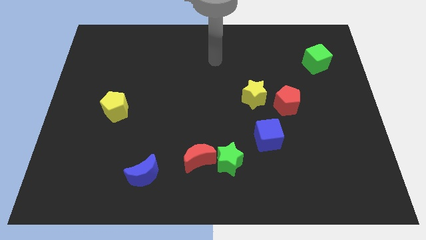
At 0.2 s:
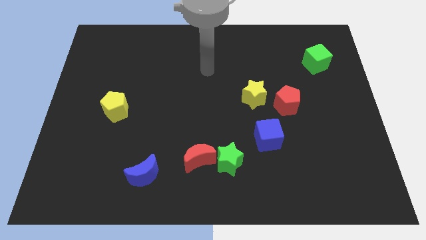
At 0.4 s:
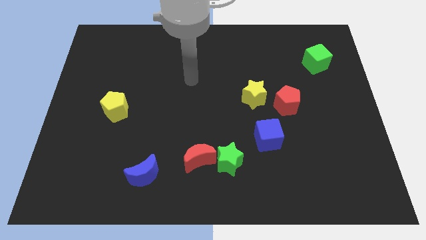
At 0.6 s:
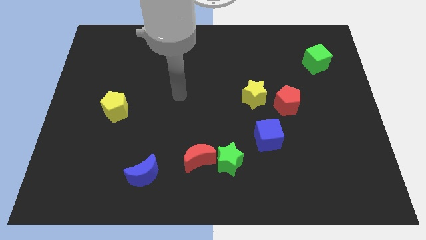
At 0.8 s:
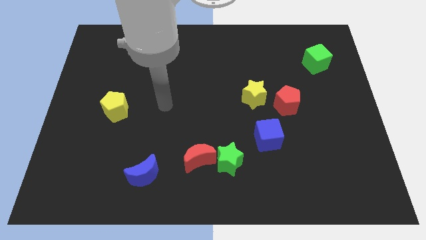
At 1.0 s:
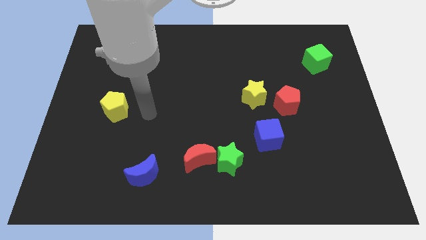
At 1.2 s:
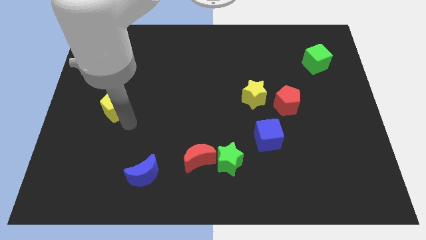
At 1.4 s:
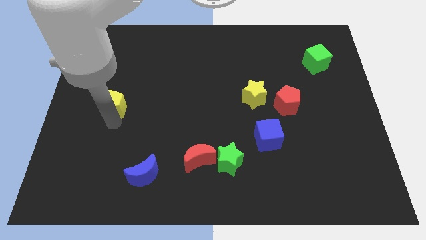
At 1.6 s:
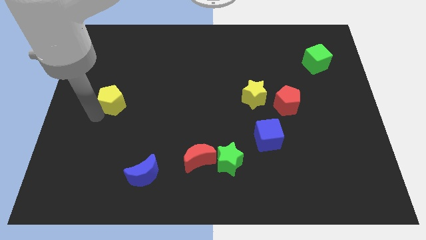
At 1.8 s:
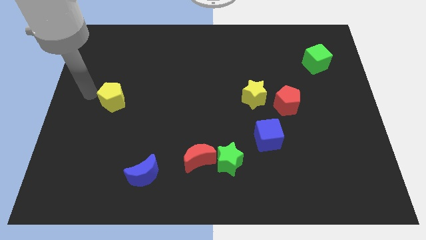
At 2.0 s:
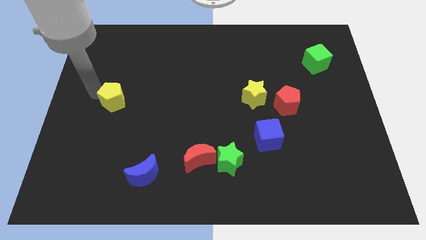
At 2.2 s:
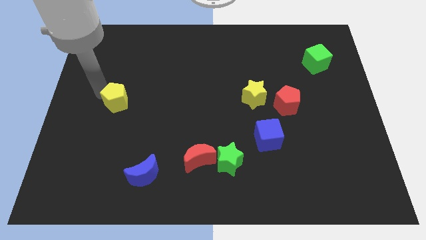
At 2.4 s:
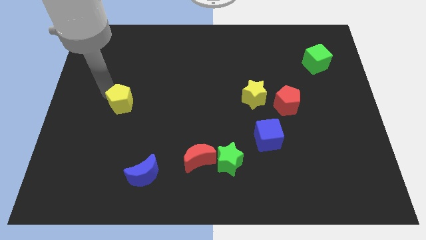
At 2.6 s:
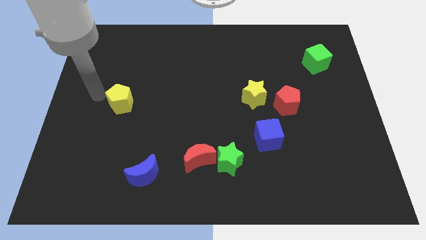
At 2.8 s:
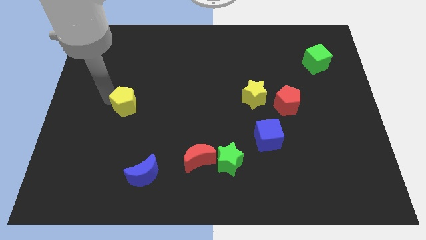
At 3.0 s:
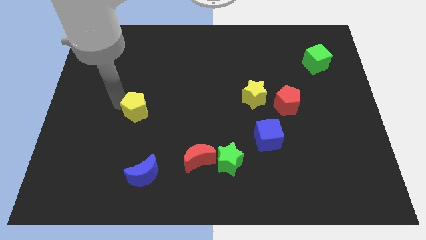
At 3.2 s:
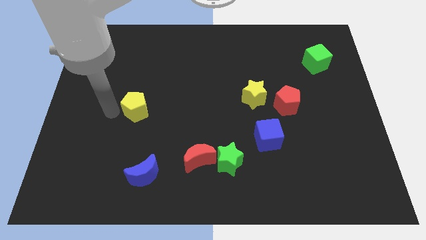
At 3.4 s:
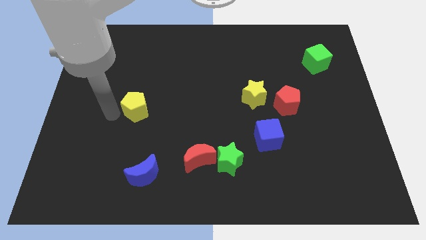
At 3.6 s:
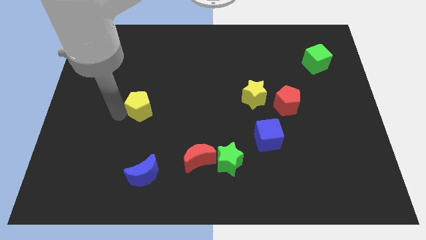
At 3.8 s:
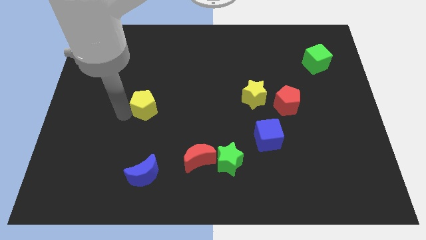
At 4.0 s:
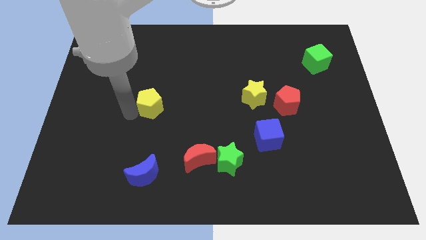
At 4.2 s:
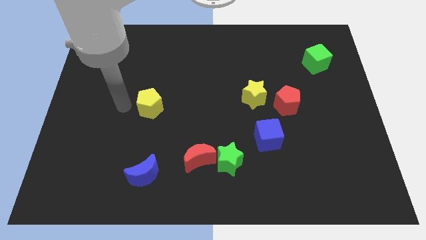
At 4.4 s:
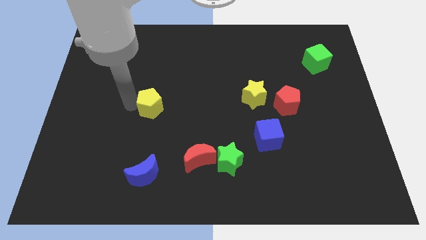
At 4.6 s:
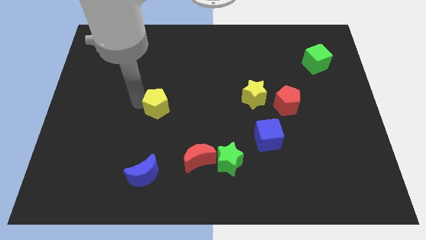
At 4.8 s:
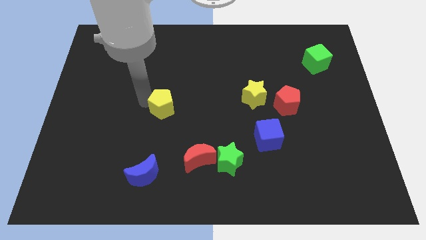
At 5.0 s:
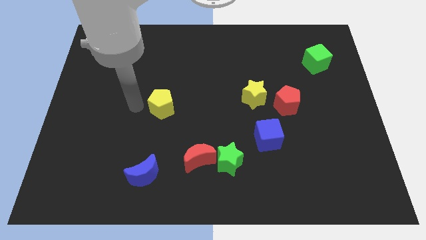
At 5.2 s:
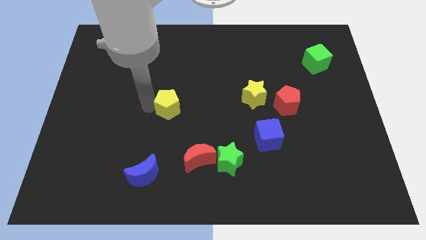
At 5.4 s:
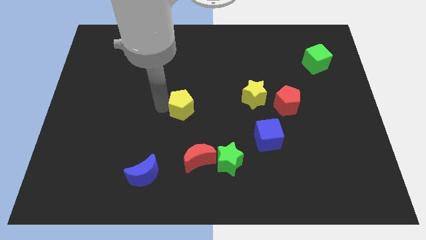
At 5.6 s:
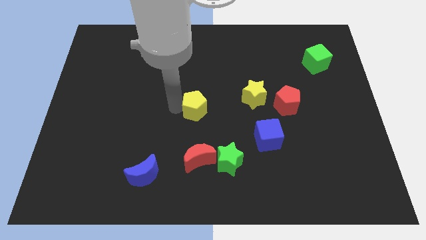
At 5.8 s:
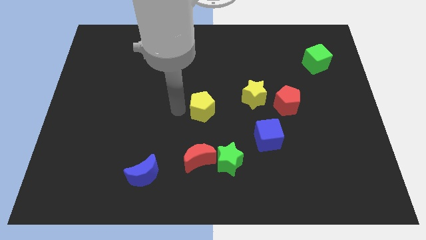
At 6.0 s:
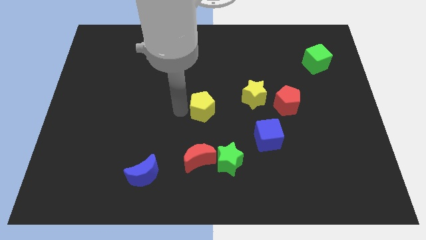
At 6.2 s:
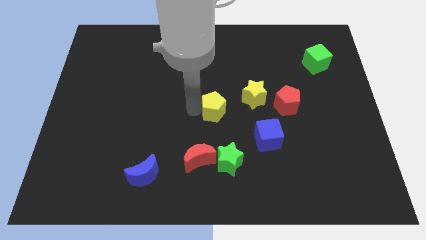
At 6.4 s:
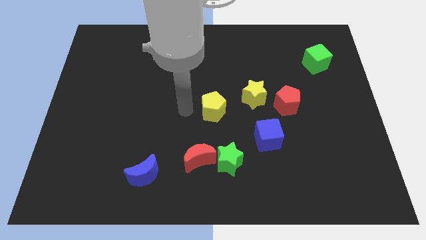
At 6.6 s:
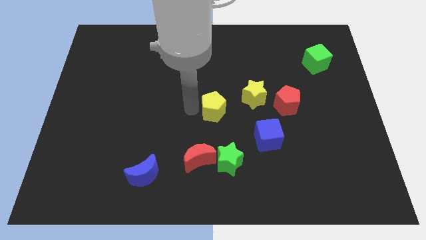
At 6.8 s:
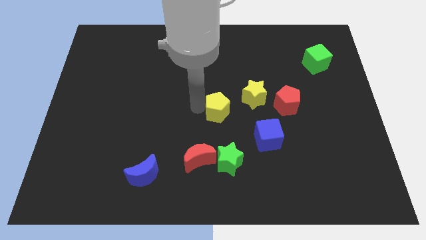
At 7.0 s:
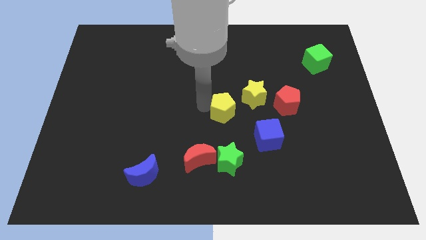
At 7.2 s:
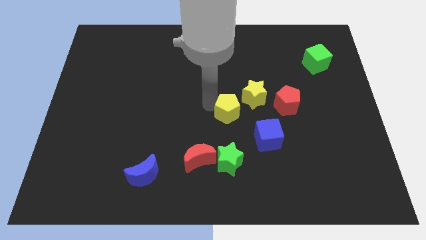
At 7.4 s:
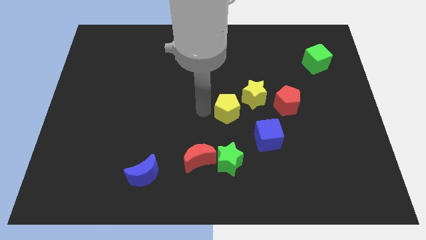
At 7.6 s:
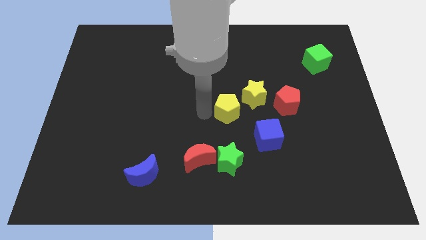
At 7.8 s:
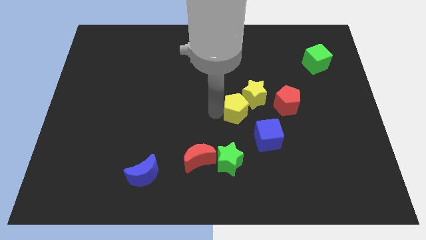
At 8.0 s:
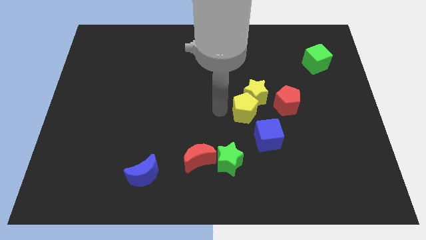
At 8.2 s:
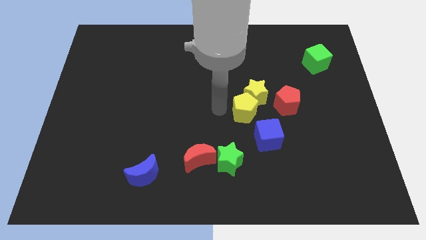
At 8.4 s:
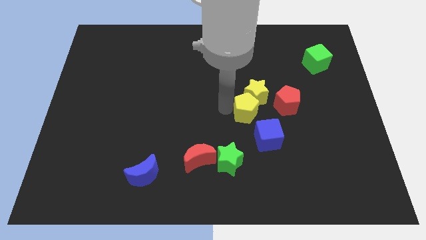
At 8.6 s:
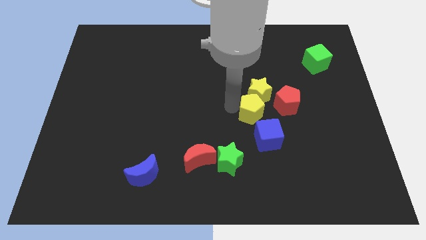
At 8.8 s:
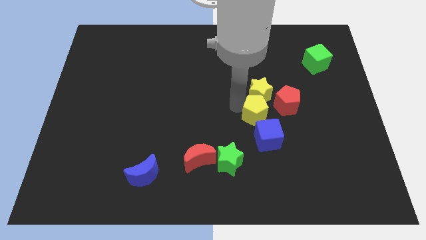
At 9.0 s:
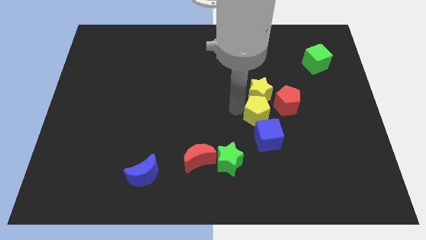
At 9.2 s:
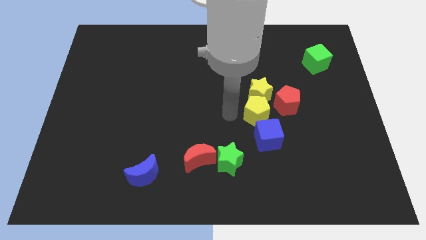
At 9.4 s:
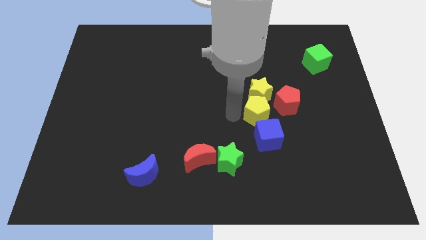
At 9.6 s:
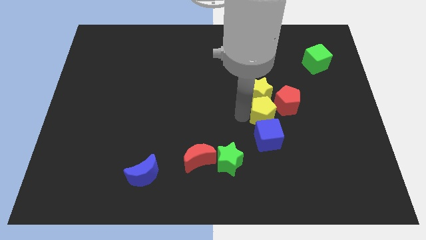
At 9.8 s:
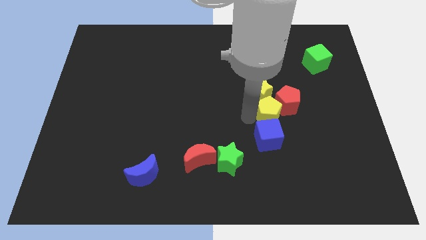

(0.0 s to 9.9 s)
put the yellow pentagon towards the red pentagon

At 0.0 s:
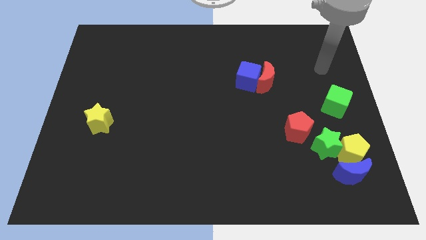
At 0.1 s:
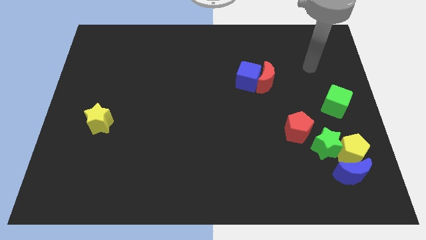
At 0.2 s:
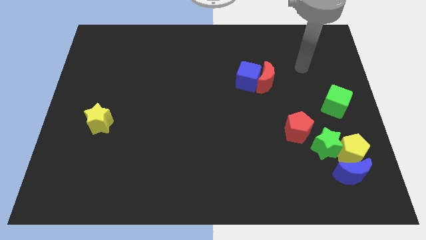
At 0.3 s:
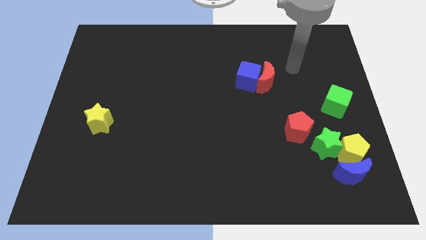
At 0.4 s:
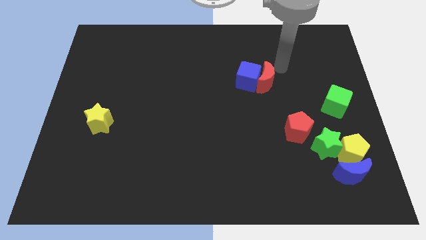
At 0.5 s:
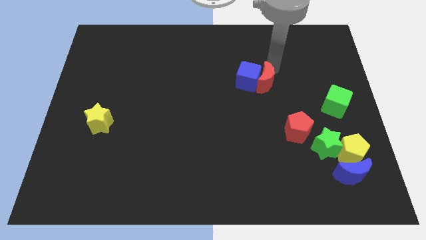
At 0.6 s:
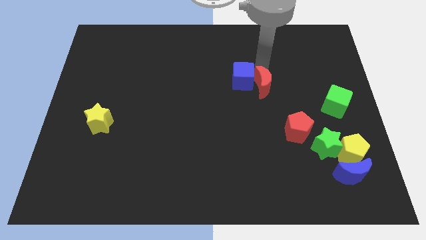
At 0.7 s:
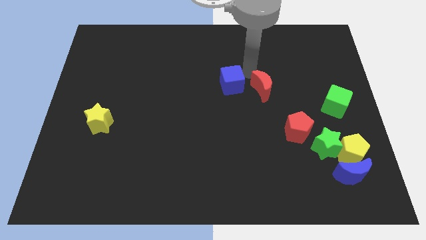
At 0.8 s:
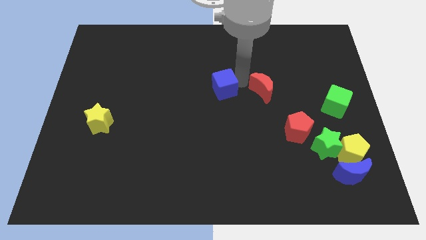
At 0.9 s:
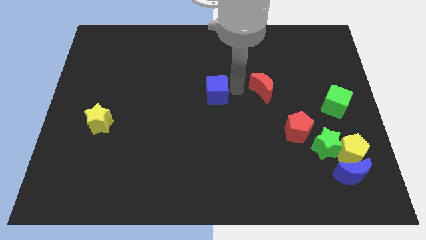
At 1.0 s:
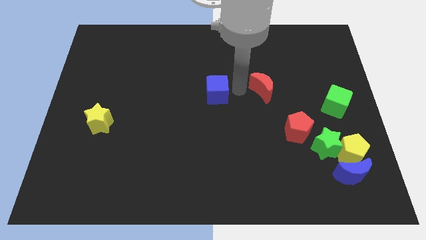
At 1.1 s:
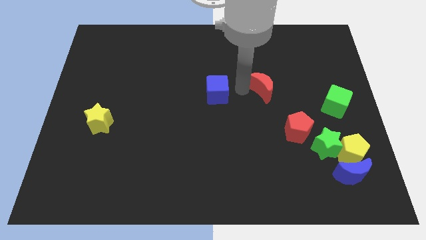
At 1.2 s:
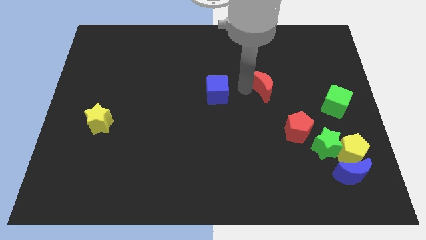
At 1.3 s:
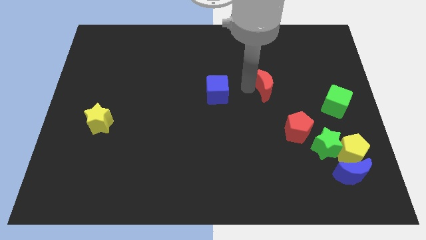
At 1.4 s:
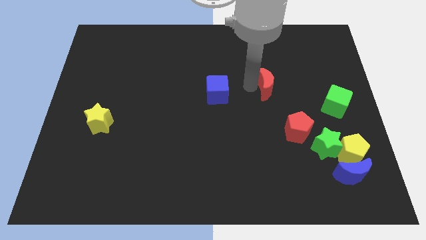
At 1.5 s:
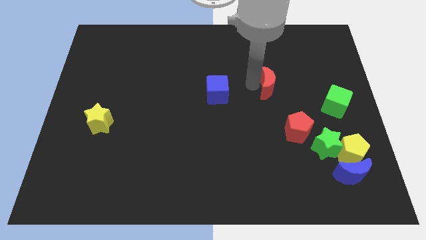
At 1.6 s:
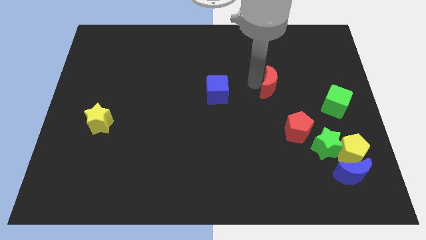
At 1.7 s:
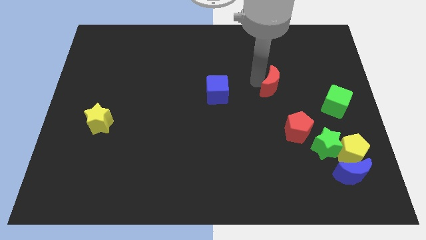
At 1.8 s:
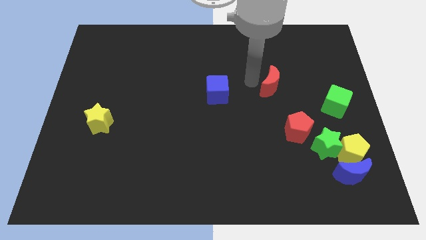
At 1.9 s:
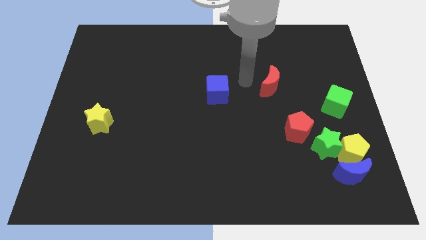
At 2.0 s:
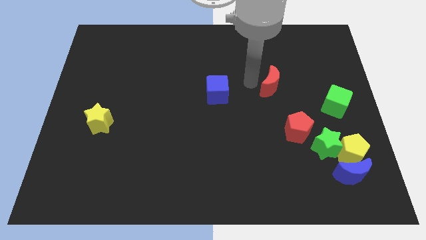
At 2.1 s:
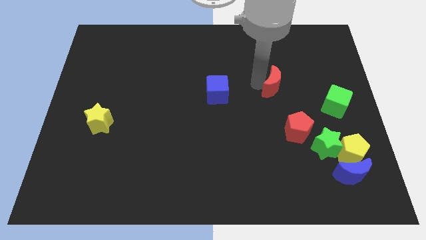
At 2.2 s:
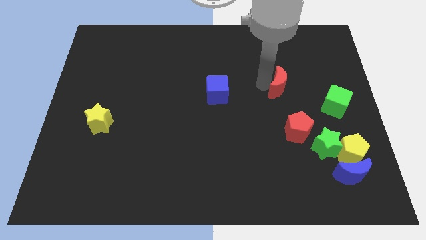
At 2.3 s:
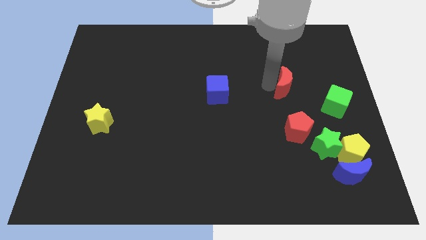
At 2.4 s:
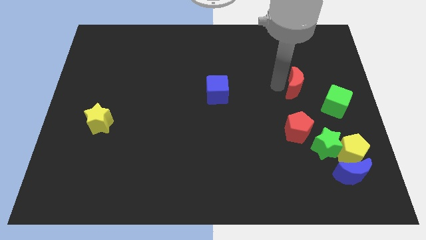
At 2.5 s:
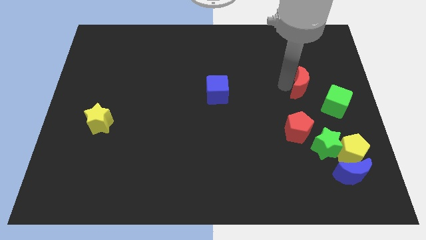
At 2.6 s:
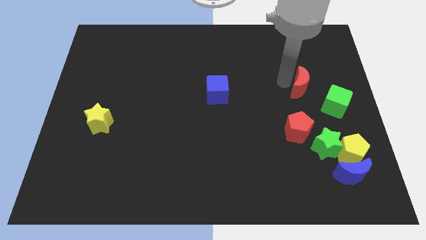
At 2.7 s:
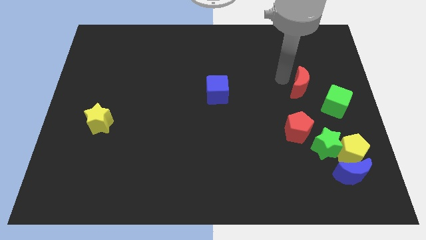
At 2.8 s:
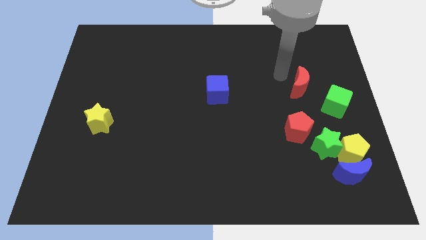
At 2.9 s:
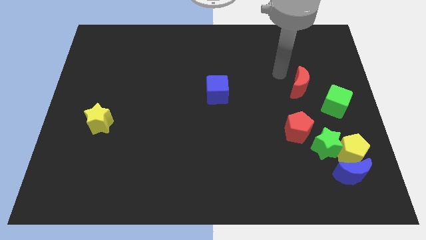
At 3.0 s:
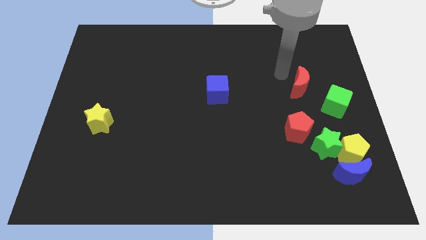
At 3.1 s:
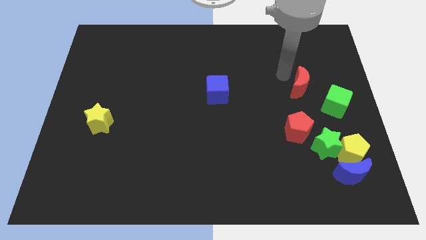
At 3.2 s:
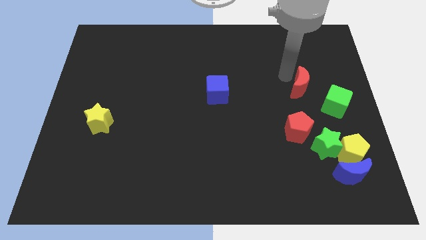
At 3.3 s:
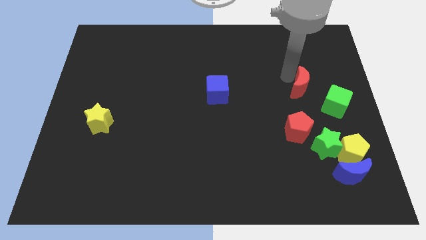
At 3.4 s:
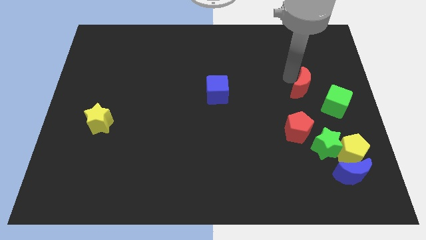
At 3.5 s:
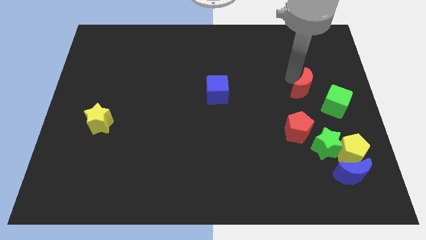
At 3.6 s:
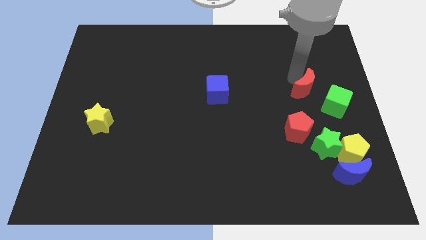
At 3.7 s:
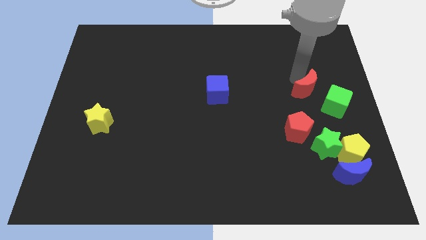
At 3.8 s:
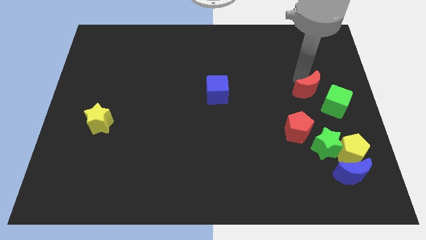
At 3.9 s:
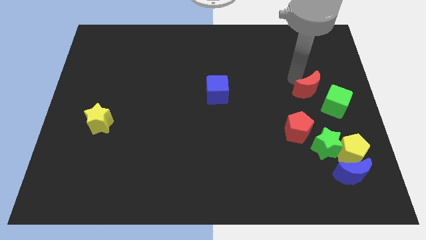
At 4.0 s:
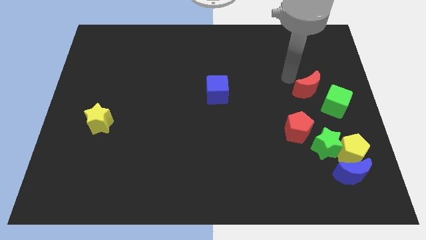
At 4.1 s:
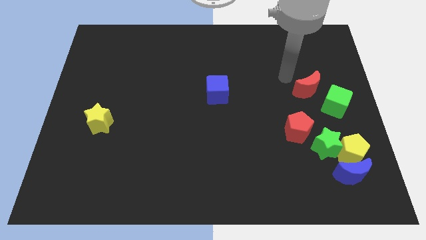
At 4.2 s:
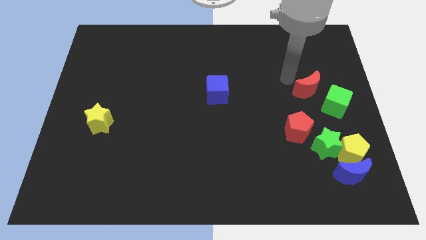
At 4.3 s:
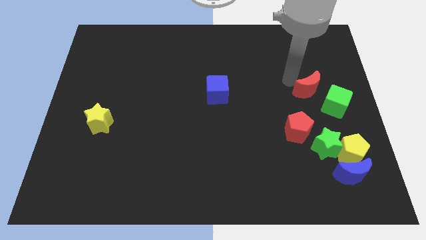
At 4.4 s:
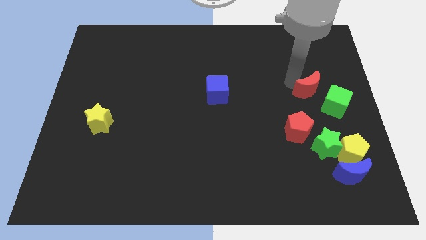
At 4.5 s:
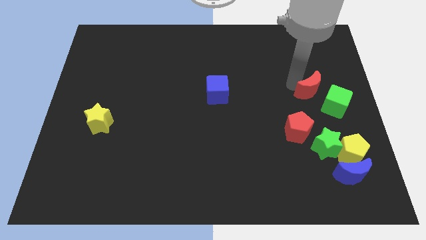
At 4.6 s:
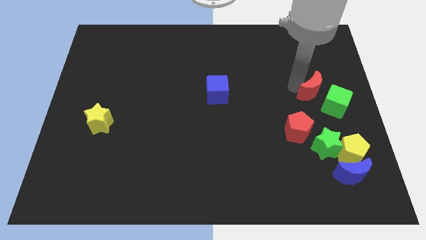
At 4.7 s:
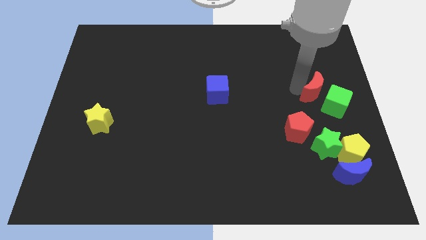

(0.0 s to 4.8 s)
move the red moon next to the green cube
